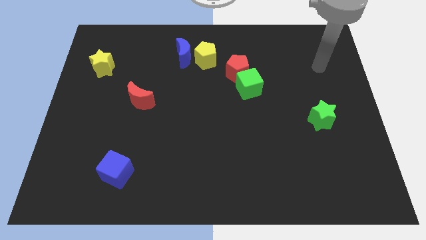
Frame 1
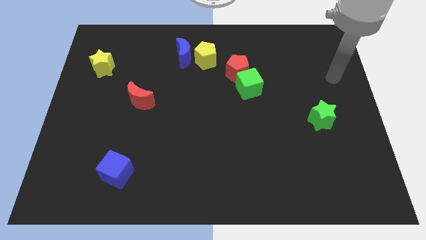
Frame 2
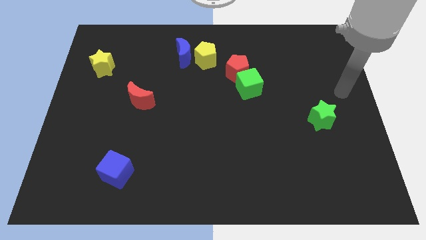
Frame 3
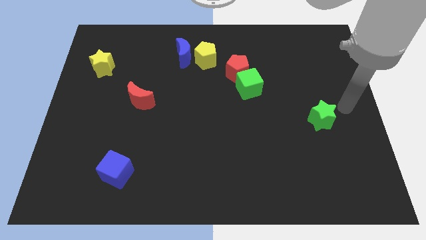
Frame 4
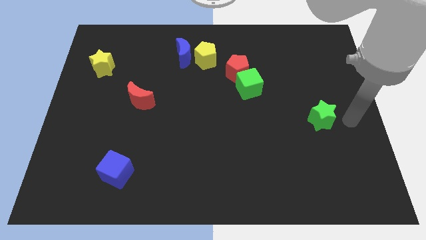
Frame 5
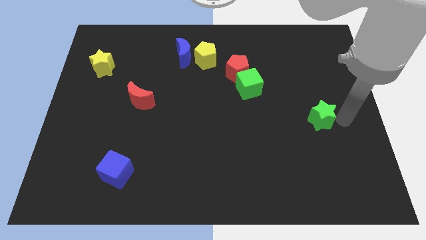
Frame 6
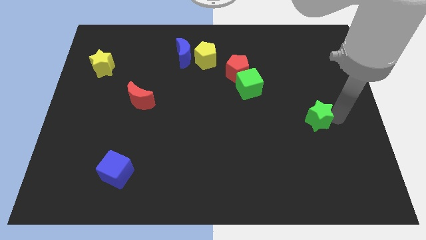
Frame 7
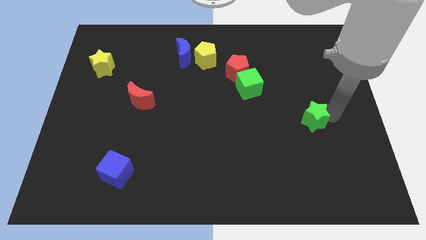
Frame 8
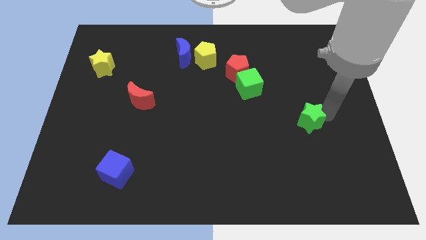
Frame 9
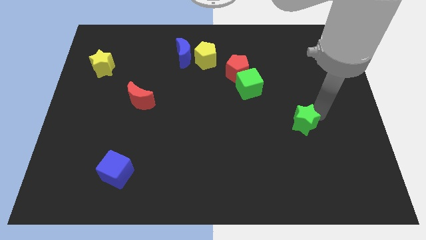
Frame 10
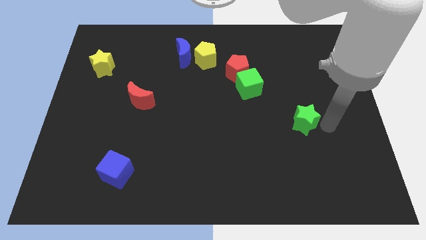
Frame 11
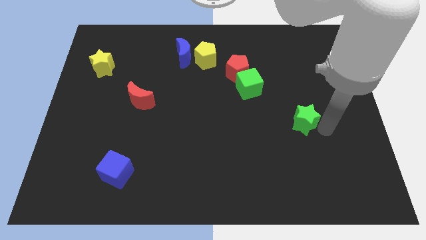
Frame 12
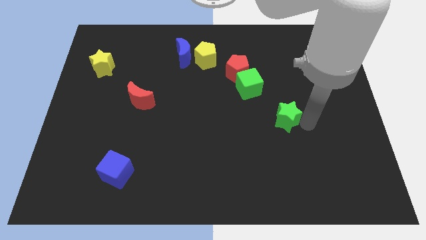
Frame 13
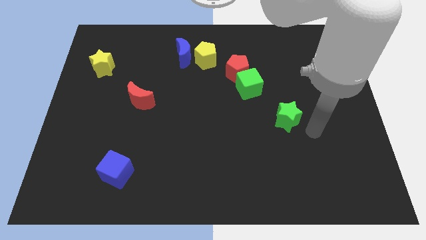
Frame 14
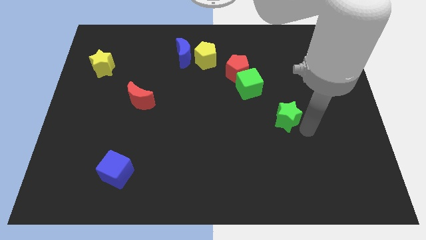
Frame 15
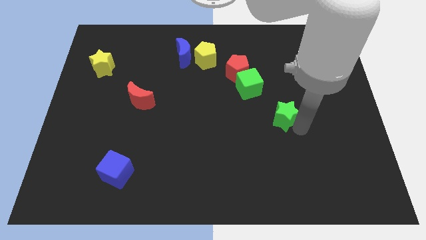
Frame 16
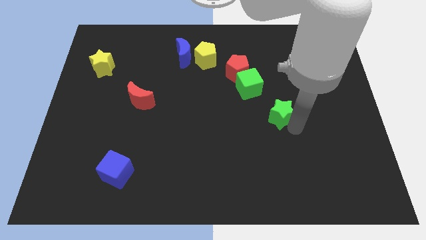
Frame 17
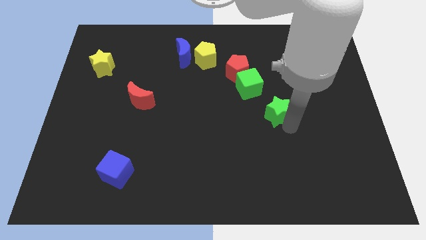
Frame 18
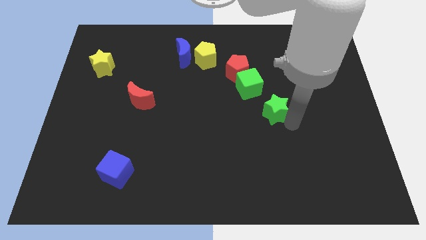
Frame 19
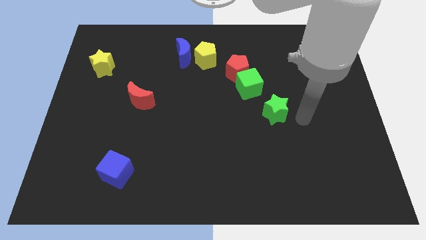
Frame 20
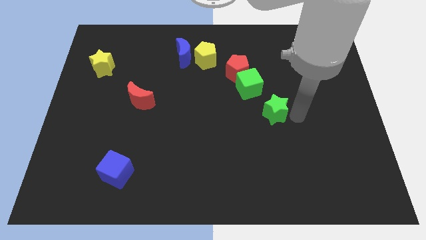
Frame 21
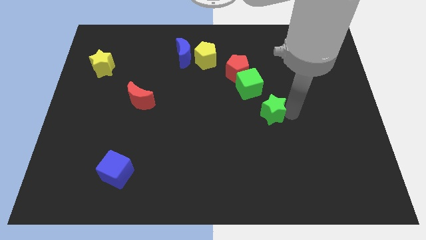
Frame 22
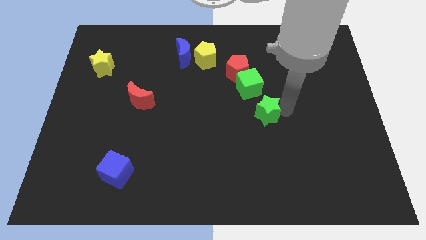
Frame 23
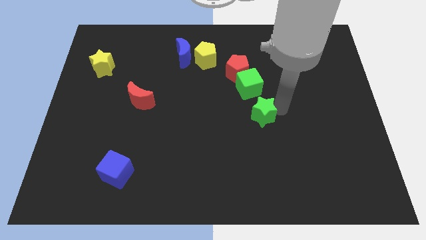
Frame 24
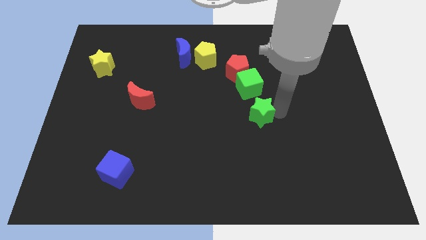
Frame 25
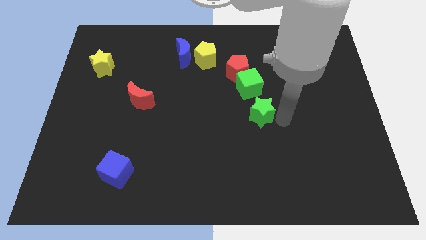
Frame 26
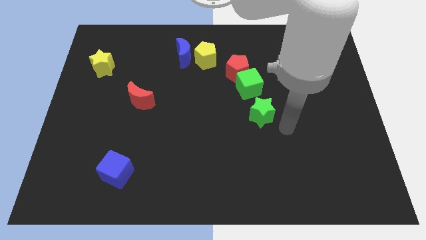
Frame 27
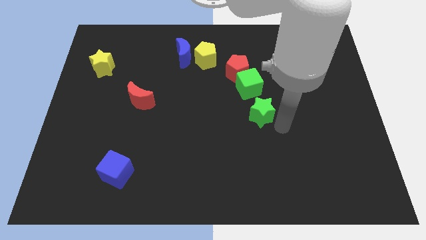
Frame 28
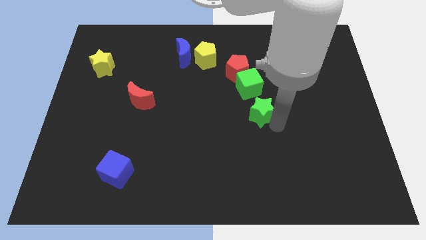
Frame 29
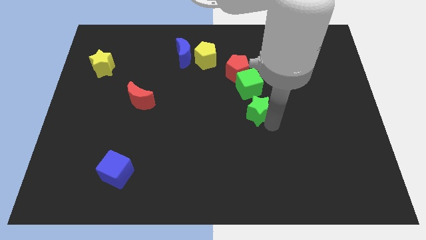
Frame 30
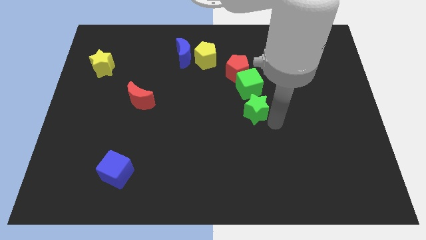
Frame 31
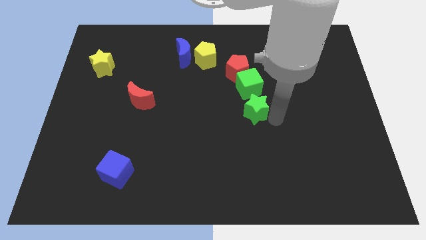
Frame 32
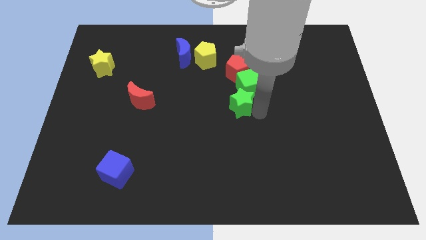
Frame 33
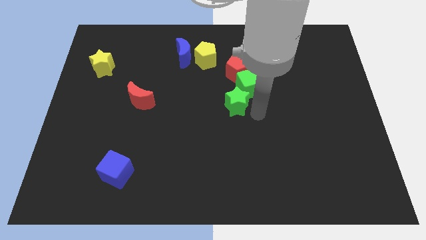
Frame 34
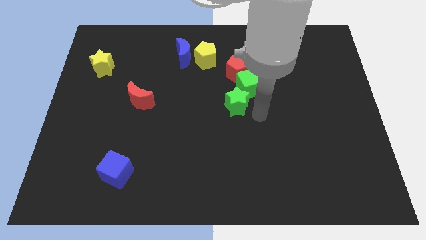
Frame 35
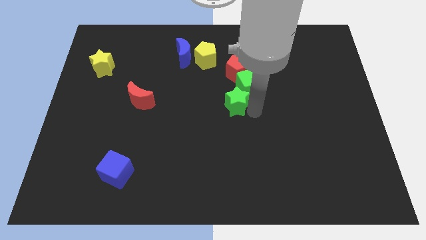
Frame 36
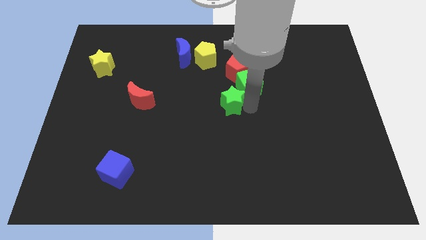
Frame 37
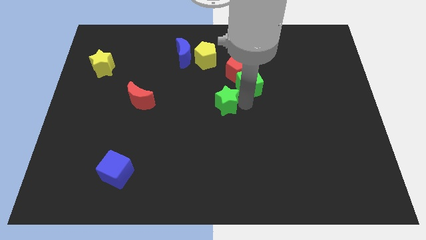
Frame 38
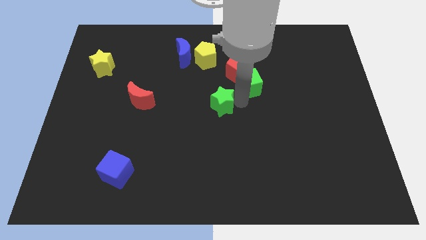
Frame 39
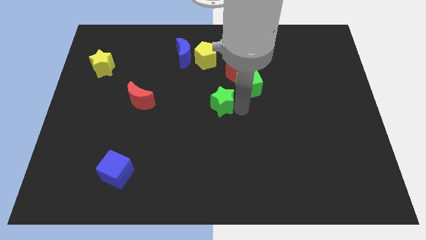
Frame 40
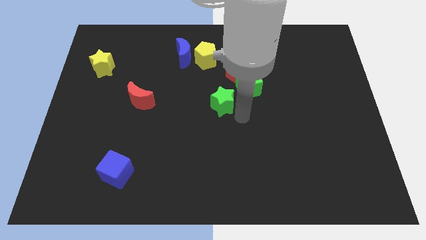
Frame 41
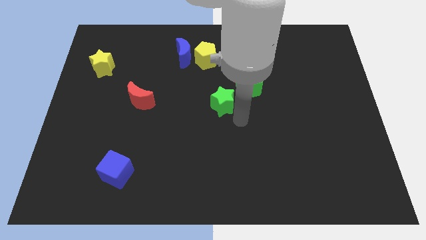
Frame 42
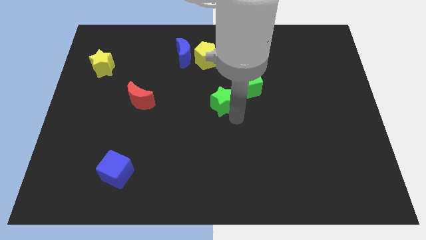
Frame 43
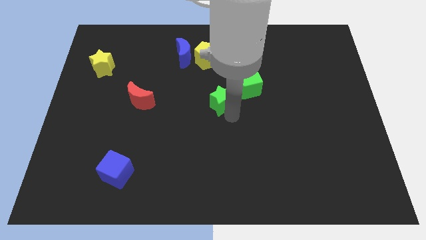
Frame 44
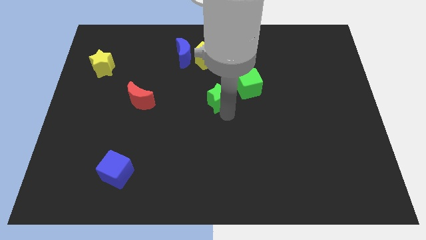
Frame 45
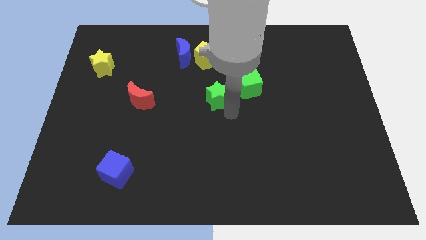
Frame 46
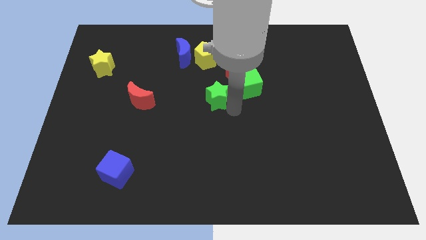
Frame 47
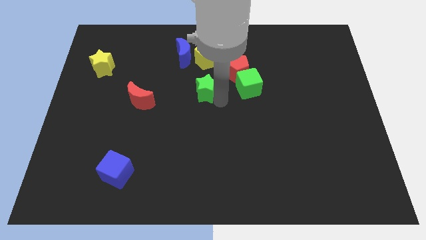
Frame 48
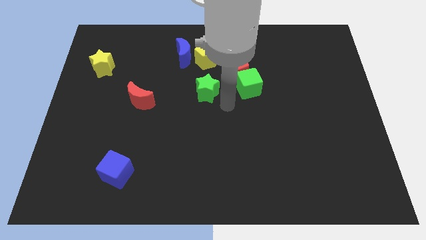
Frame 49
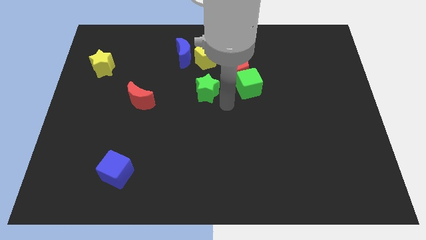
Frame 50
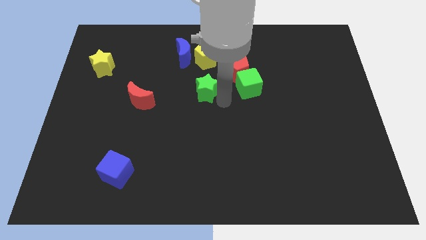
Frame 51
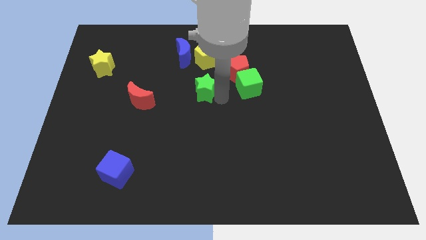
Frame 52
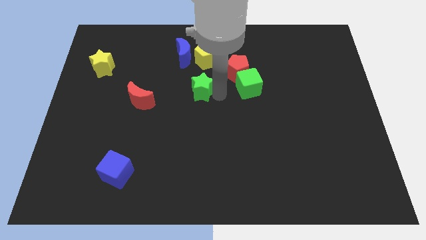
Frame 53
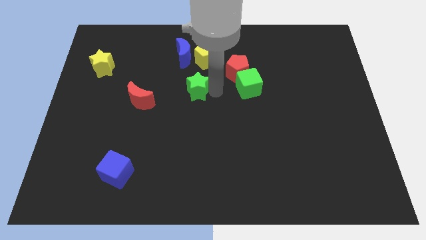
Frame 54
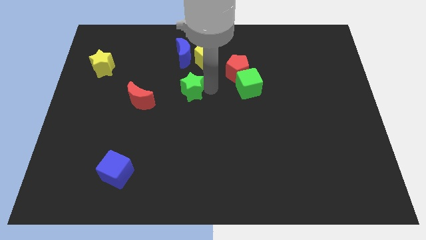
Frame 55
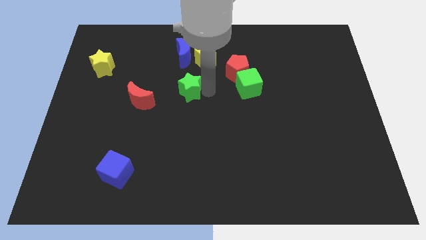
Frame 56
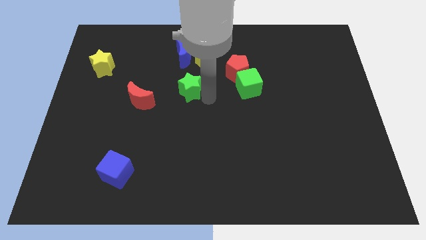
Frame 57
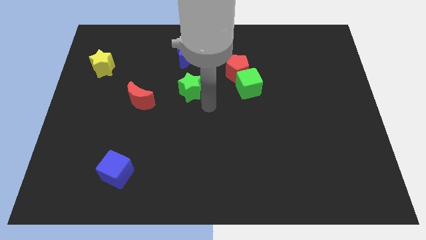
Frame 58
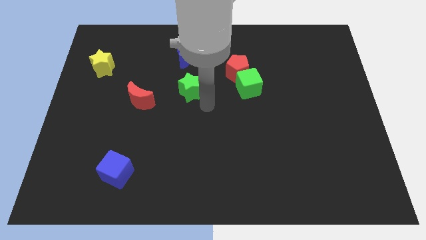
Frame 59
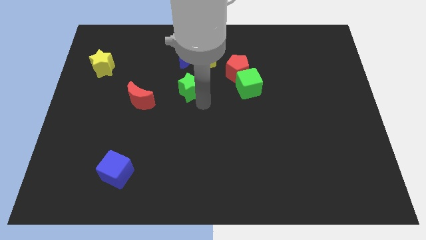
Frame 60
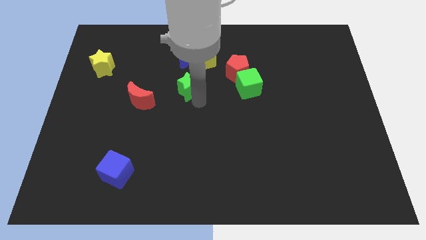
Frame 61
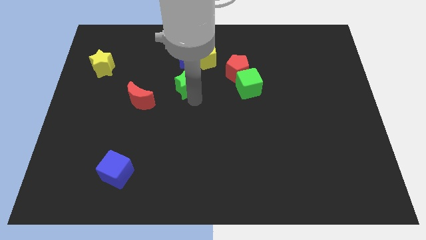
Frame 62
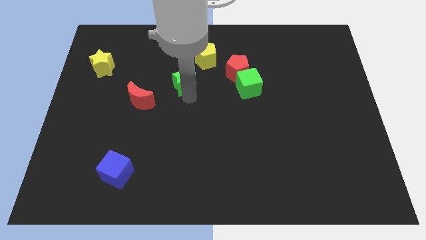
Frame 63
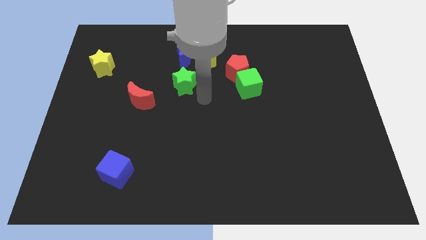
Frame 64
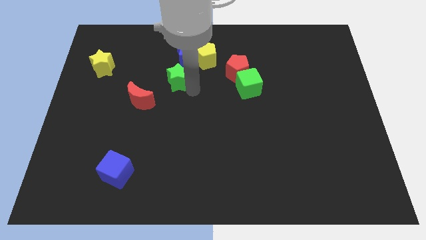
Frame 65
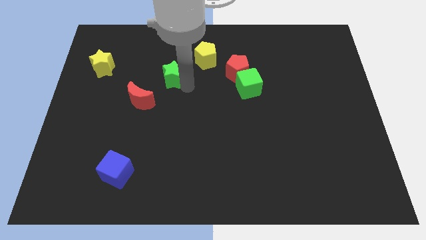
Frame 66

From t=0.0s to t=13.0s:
put the green star to the bottom left of the blue moon

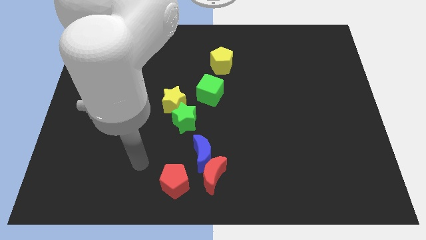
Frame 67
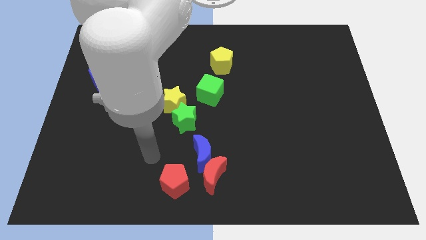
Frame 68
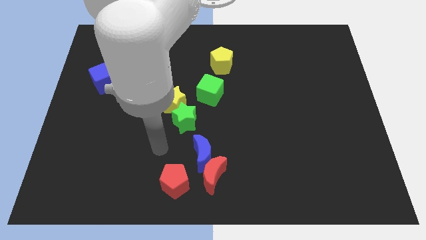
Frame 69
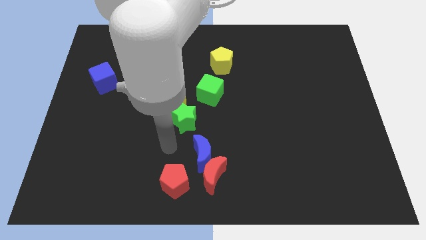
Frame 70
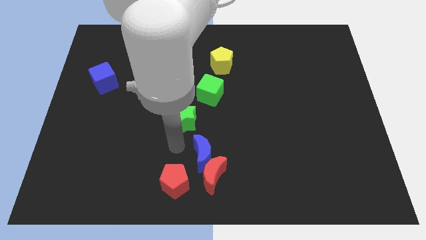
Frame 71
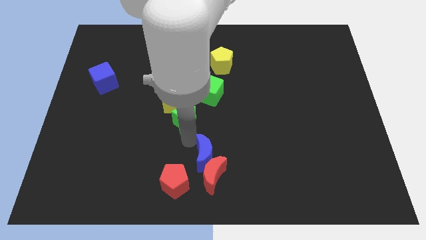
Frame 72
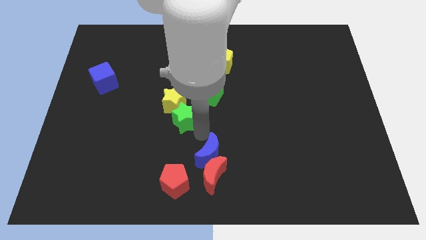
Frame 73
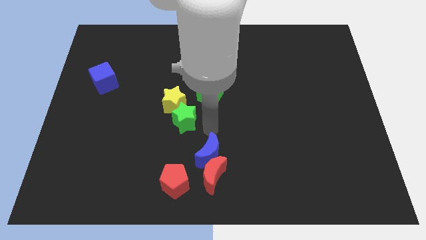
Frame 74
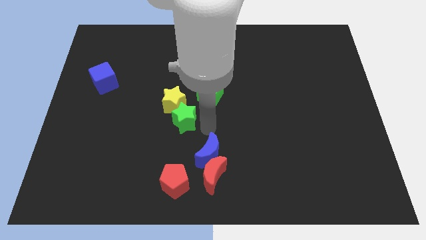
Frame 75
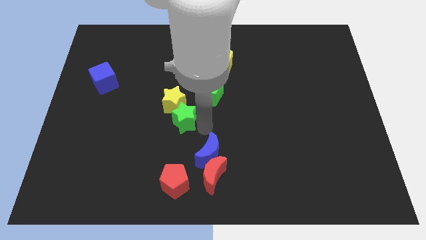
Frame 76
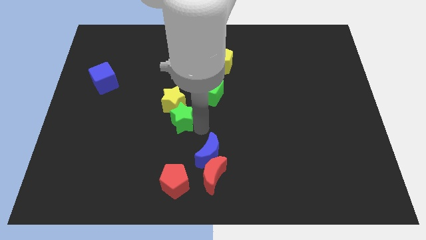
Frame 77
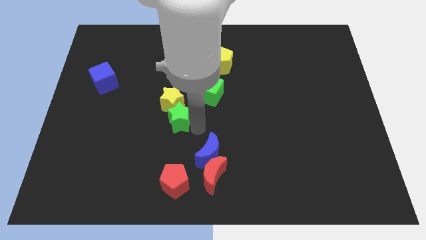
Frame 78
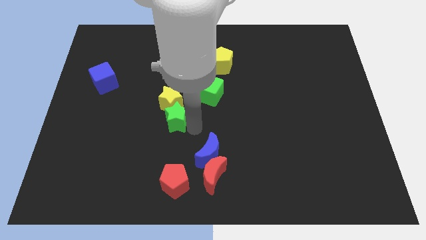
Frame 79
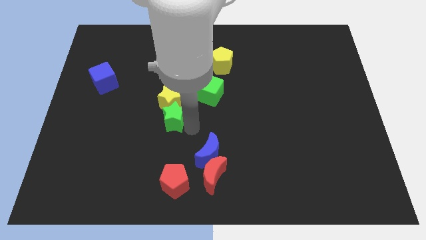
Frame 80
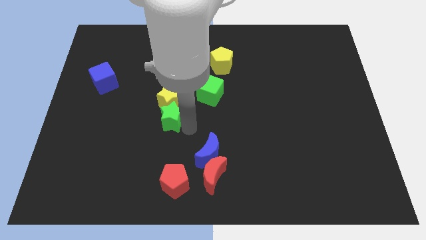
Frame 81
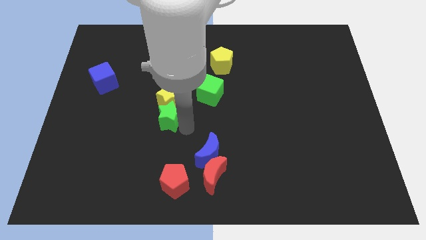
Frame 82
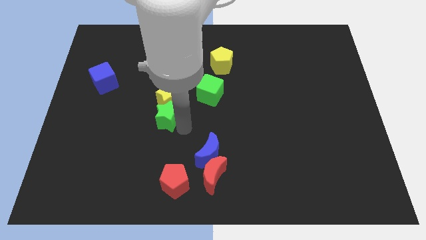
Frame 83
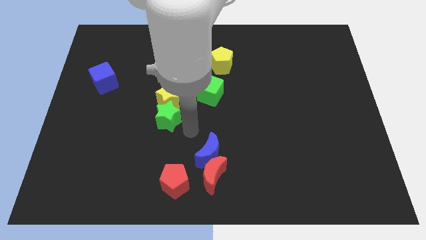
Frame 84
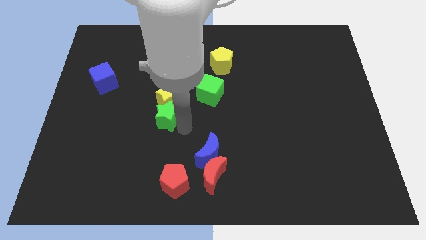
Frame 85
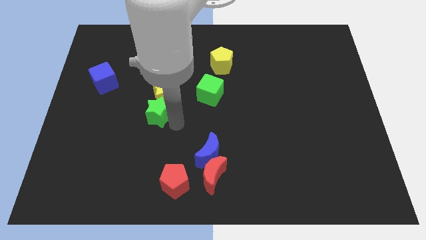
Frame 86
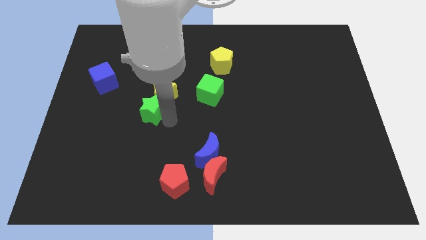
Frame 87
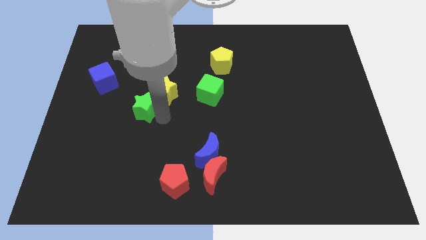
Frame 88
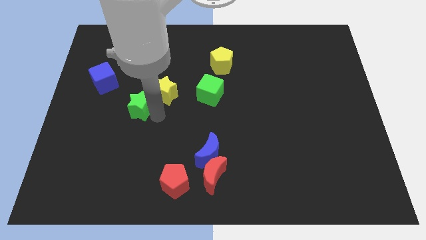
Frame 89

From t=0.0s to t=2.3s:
slide the green star diagonally down and to the right of the blue cube
